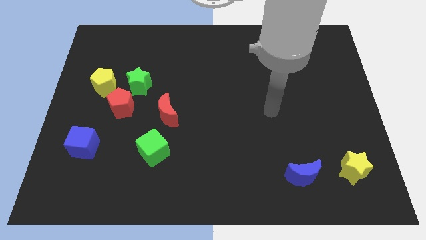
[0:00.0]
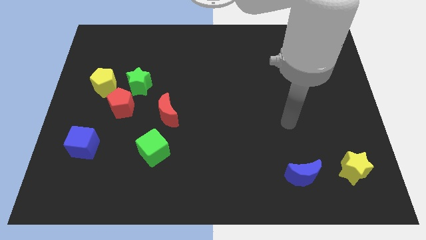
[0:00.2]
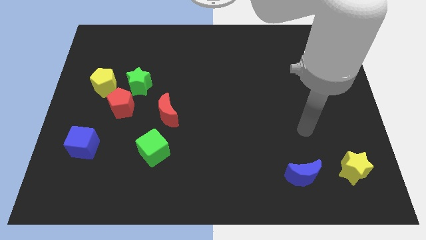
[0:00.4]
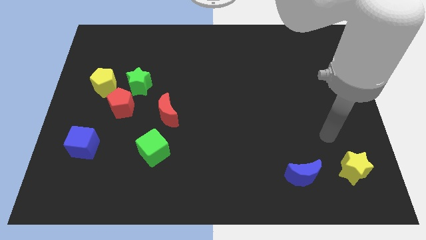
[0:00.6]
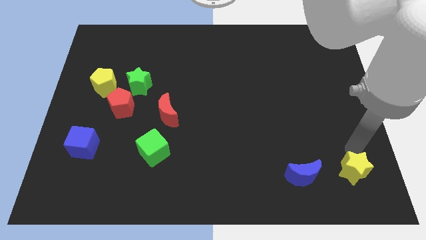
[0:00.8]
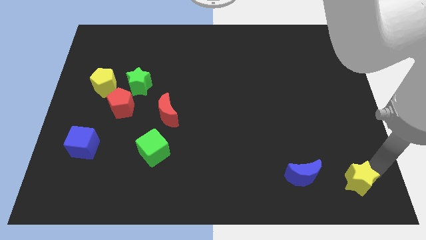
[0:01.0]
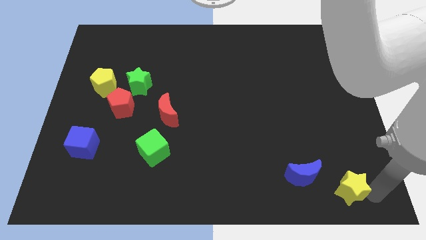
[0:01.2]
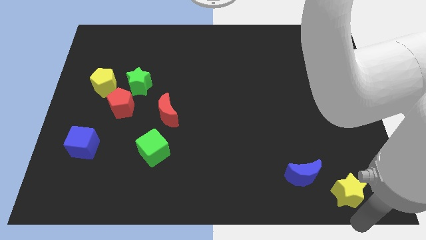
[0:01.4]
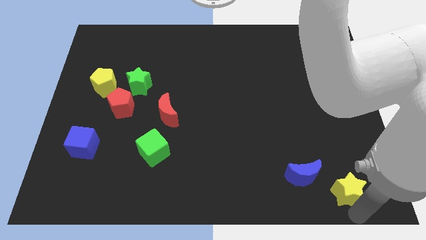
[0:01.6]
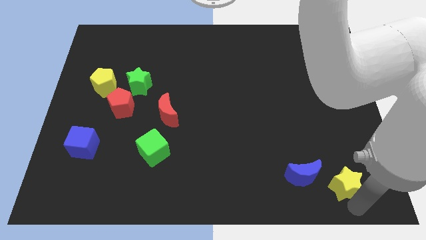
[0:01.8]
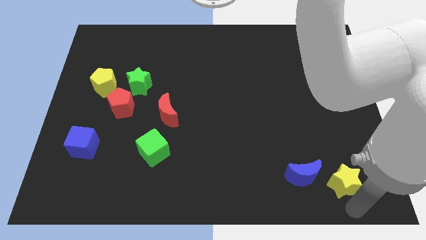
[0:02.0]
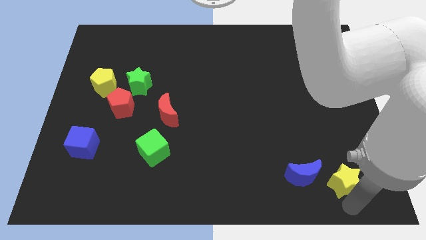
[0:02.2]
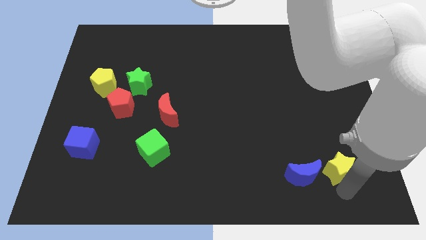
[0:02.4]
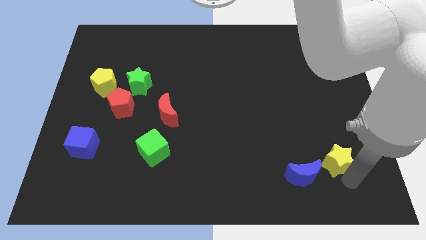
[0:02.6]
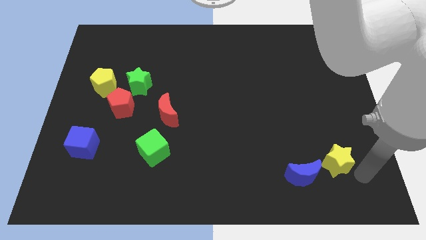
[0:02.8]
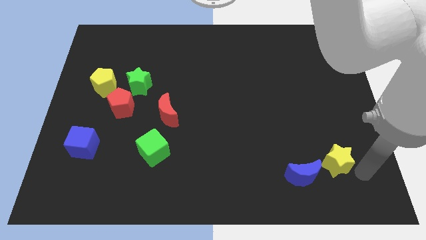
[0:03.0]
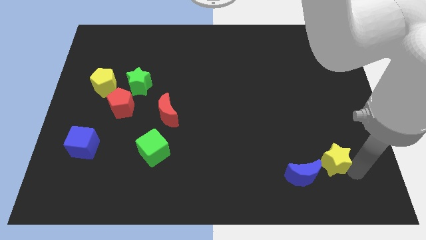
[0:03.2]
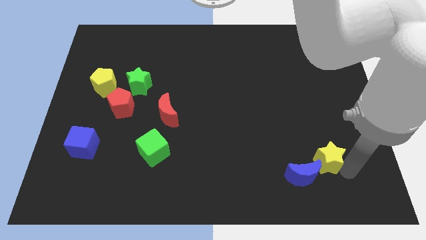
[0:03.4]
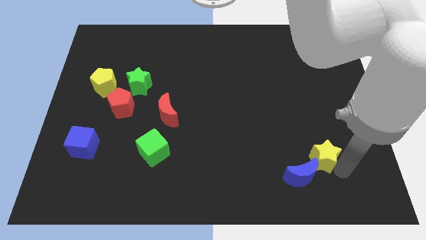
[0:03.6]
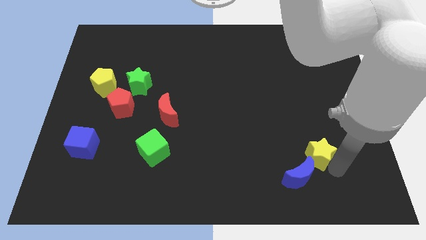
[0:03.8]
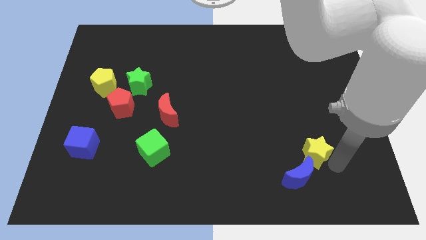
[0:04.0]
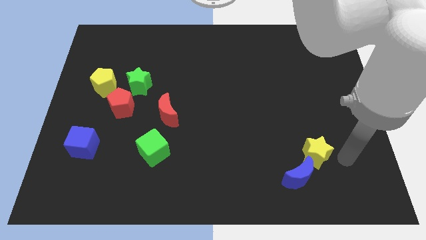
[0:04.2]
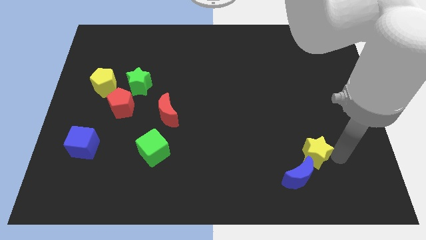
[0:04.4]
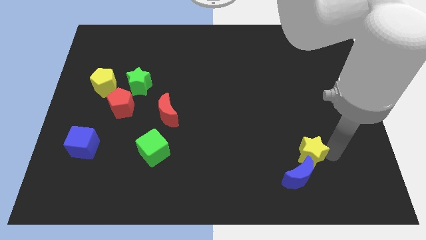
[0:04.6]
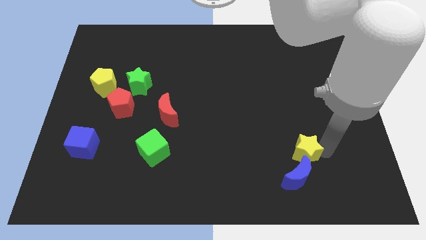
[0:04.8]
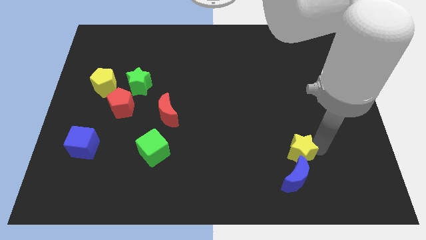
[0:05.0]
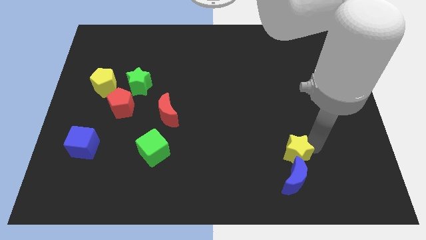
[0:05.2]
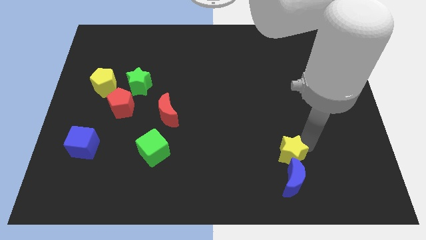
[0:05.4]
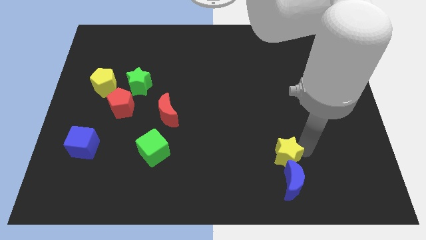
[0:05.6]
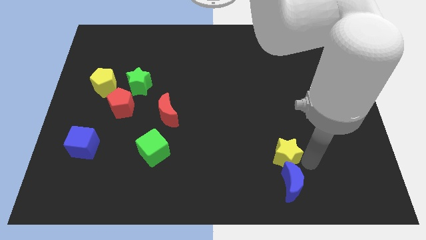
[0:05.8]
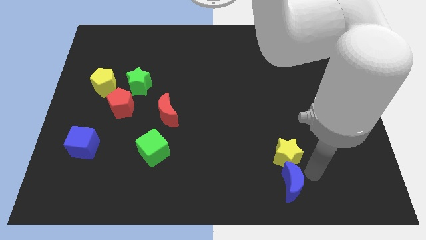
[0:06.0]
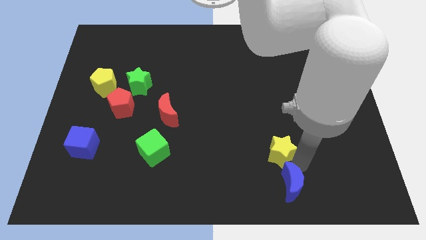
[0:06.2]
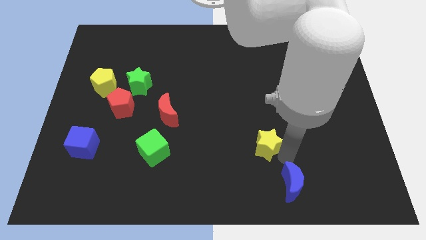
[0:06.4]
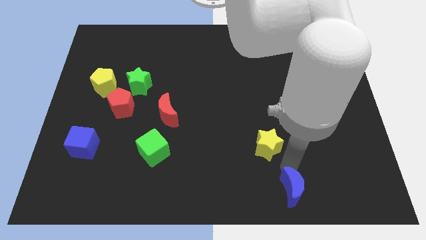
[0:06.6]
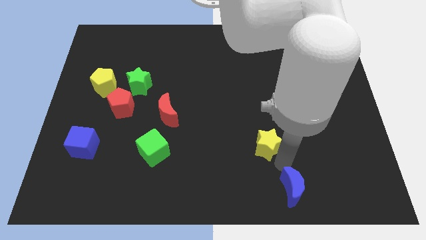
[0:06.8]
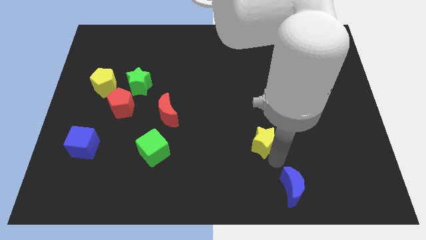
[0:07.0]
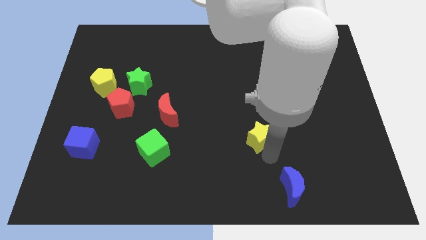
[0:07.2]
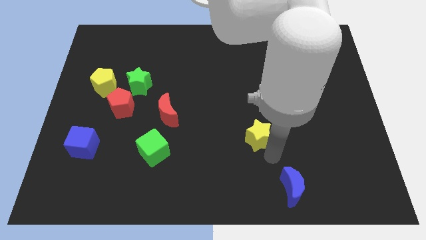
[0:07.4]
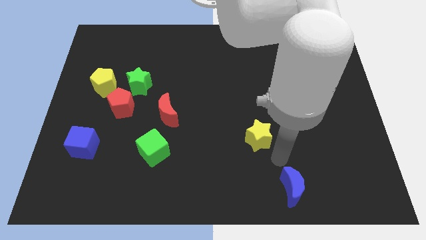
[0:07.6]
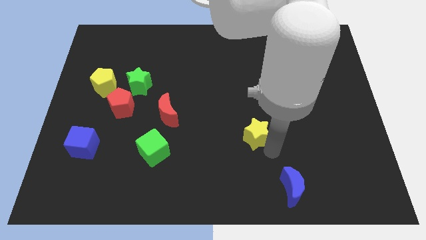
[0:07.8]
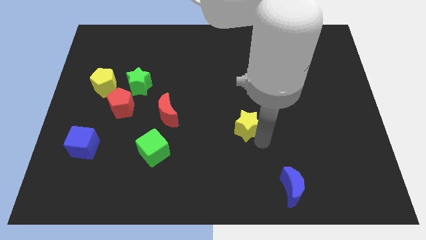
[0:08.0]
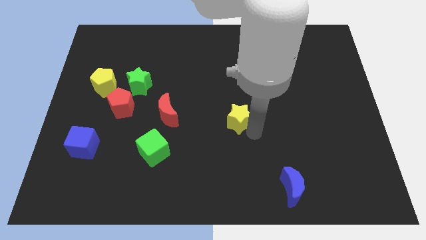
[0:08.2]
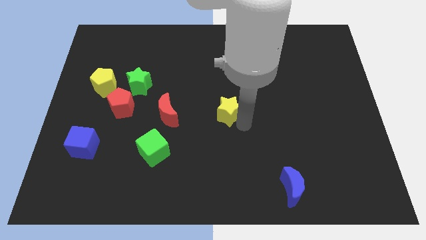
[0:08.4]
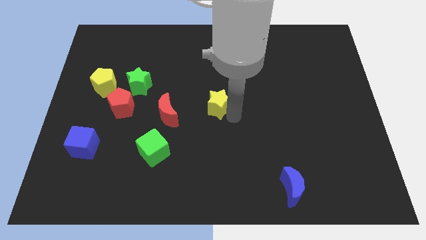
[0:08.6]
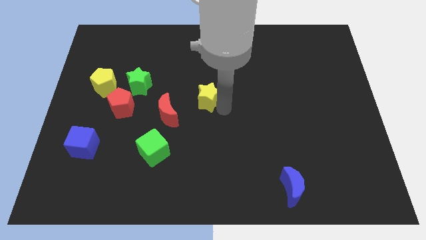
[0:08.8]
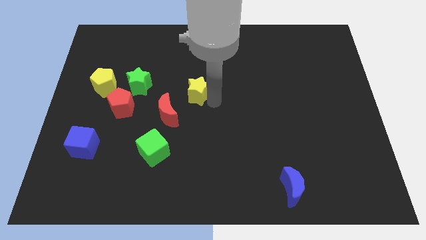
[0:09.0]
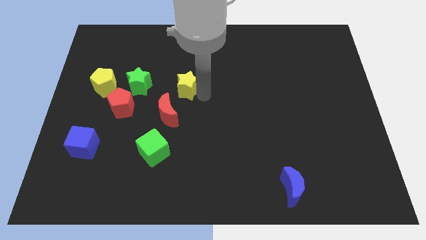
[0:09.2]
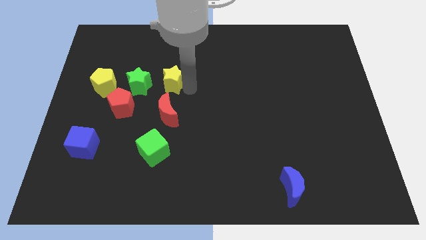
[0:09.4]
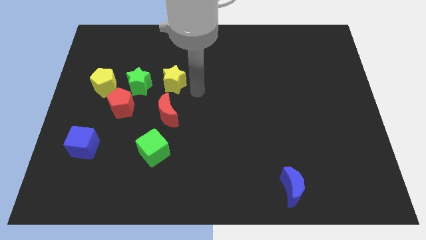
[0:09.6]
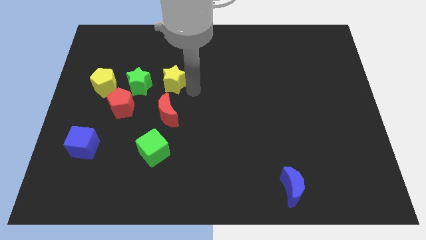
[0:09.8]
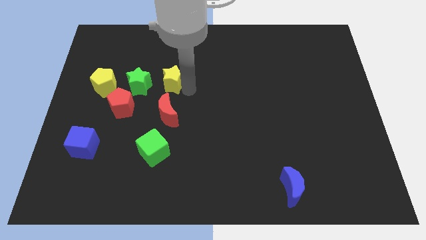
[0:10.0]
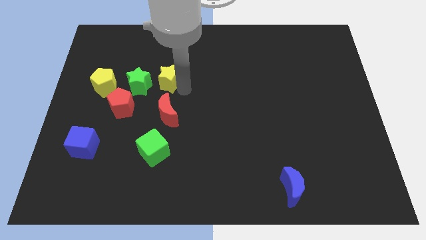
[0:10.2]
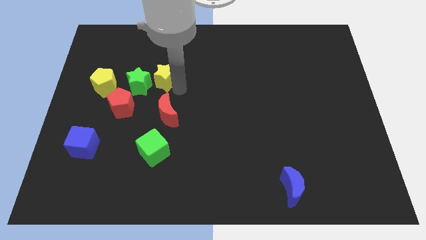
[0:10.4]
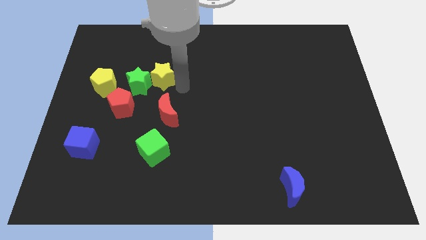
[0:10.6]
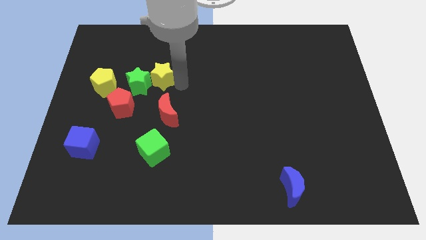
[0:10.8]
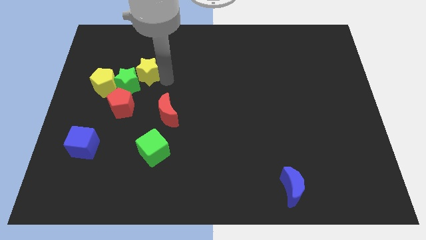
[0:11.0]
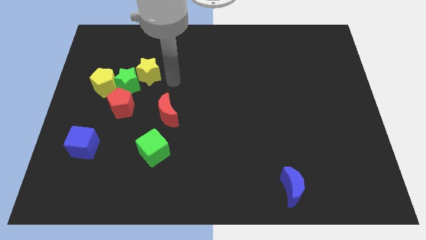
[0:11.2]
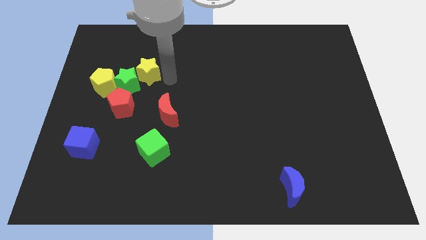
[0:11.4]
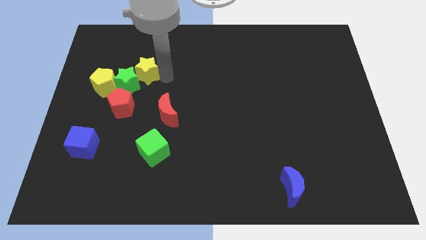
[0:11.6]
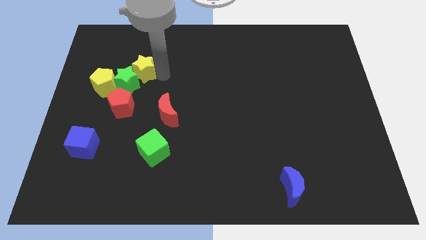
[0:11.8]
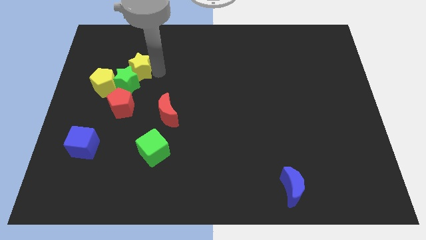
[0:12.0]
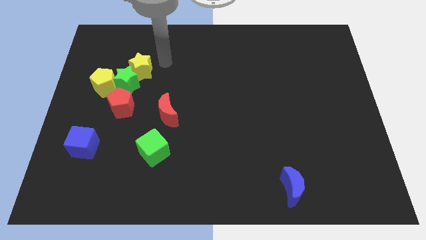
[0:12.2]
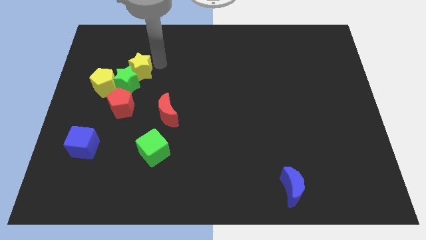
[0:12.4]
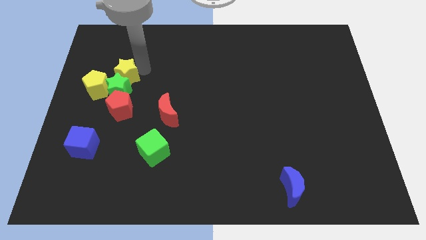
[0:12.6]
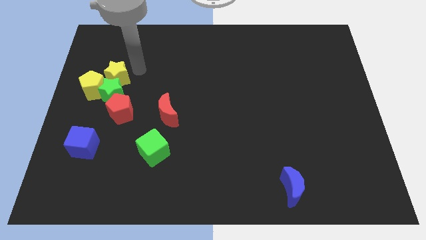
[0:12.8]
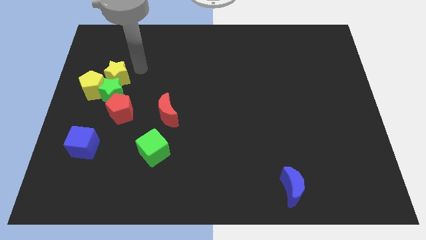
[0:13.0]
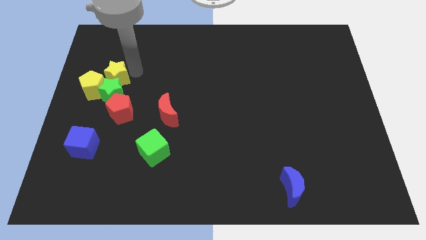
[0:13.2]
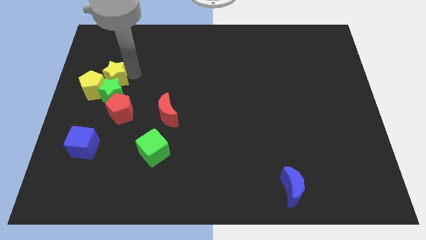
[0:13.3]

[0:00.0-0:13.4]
move the yellow star next to the yellow pentagon

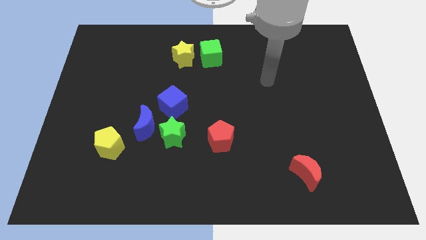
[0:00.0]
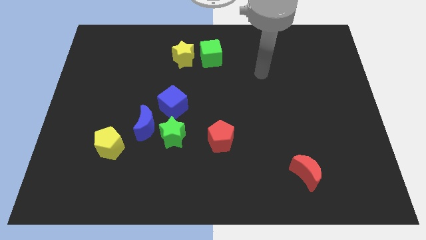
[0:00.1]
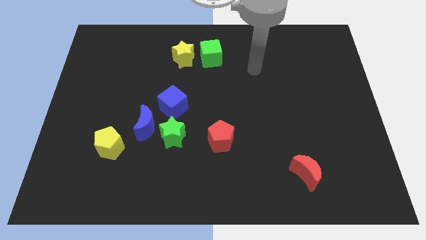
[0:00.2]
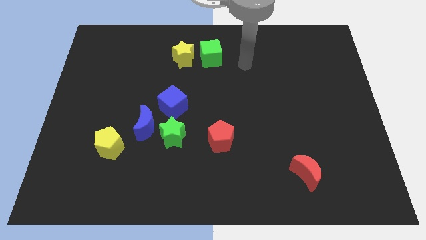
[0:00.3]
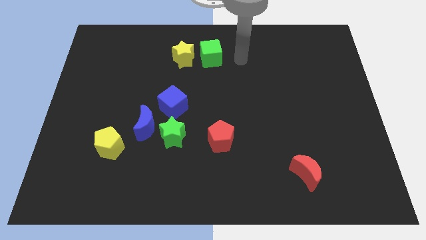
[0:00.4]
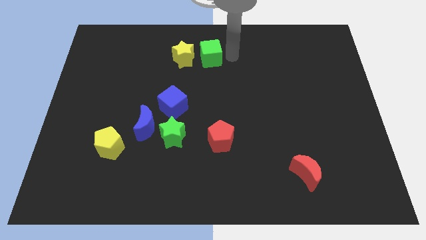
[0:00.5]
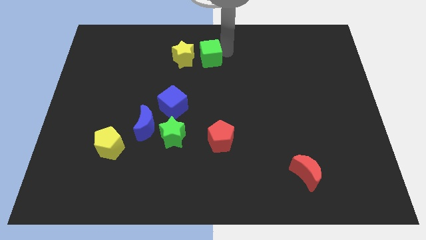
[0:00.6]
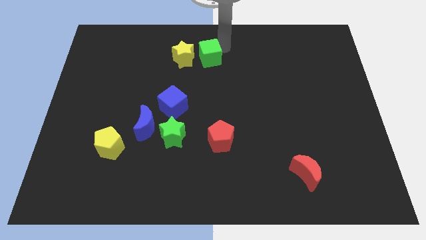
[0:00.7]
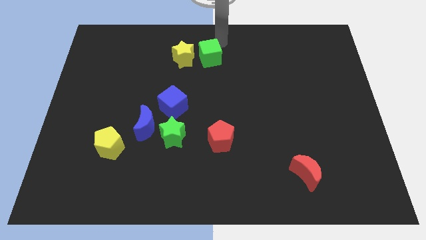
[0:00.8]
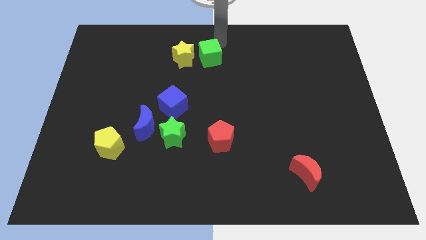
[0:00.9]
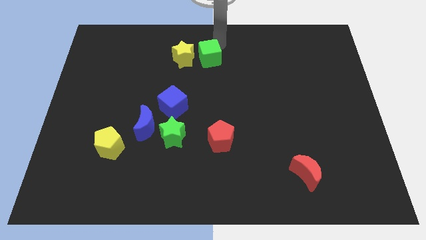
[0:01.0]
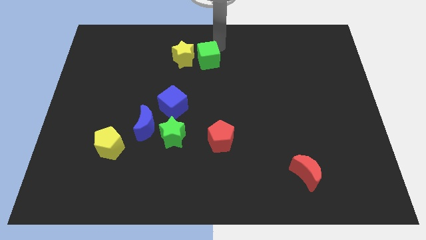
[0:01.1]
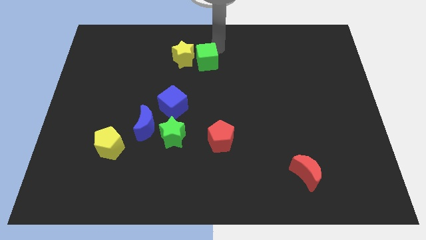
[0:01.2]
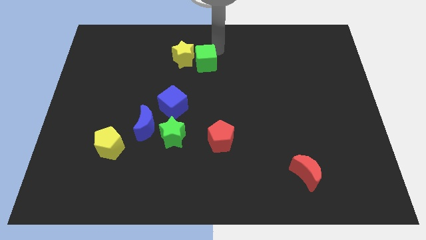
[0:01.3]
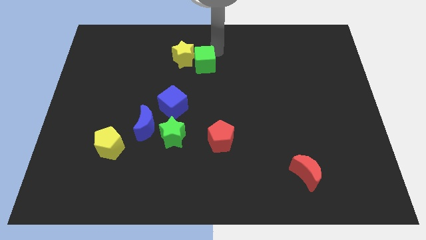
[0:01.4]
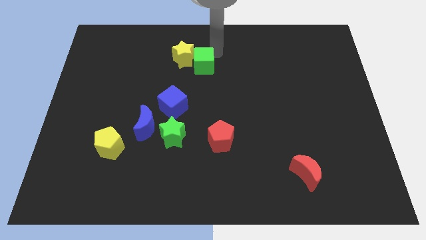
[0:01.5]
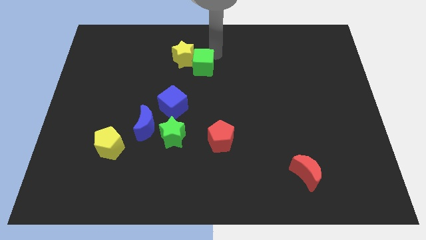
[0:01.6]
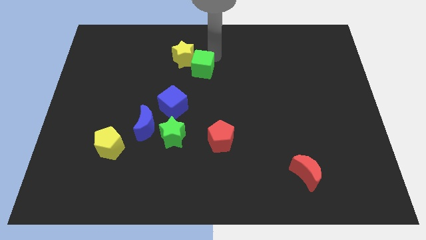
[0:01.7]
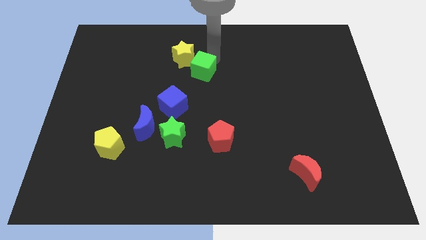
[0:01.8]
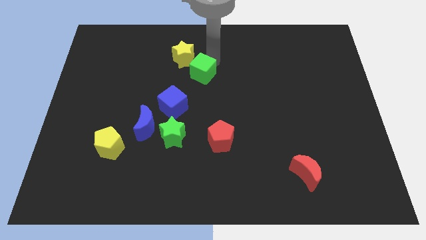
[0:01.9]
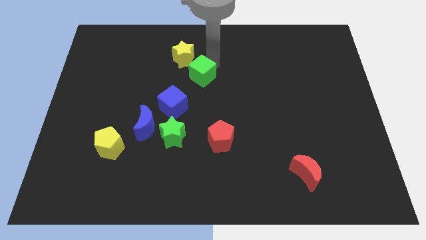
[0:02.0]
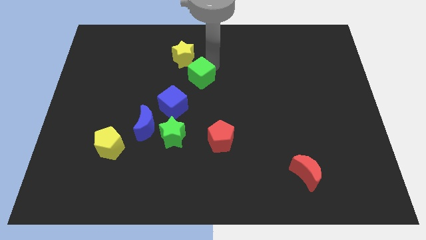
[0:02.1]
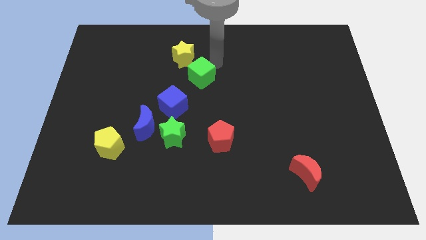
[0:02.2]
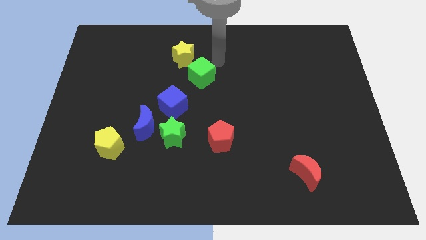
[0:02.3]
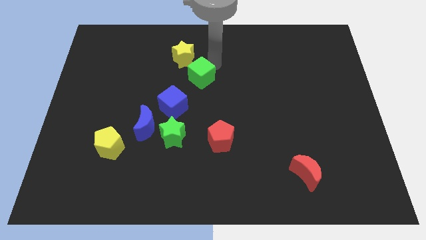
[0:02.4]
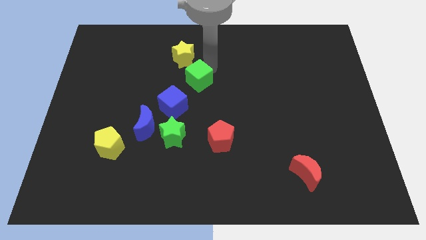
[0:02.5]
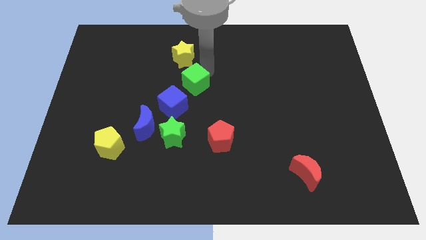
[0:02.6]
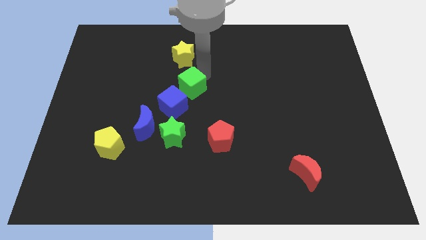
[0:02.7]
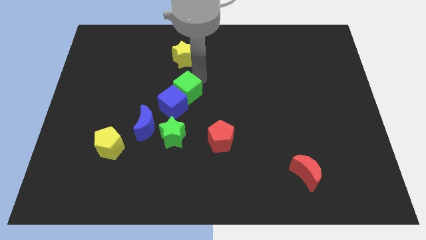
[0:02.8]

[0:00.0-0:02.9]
put the green cube close to the blue cube
